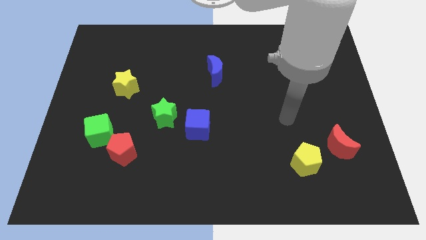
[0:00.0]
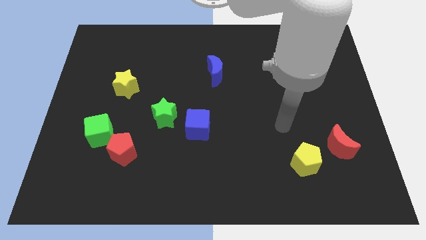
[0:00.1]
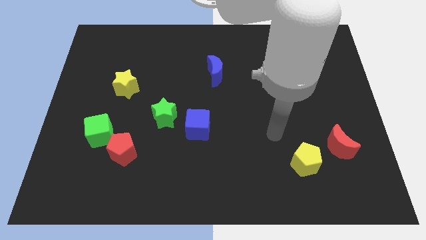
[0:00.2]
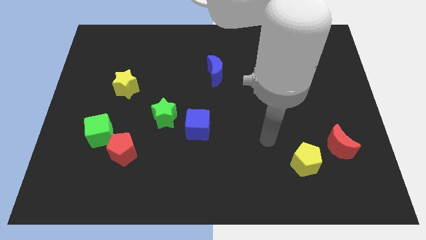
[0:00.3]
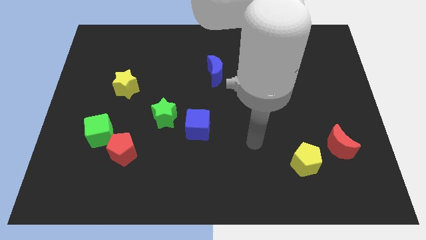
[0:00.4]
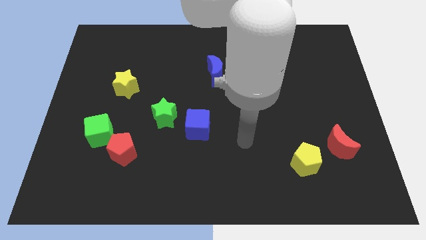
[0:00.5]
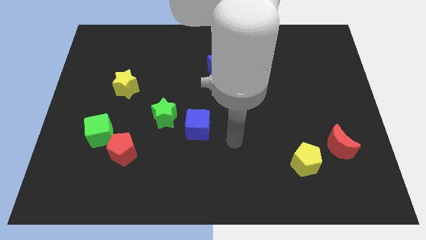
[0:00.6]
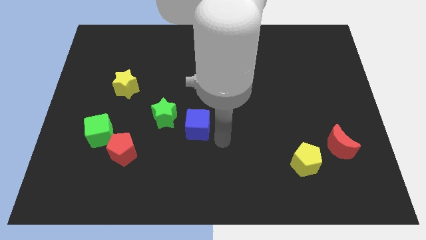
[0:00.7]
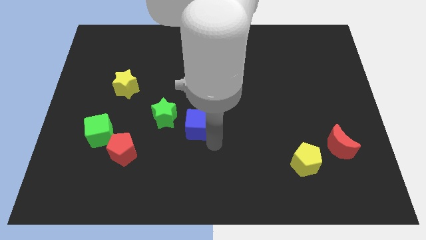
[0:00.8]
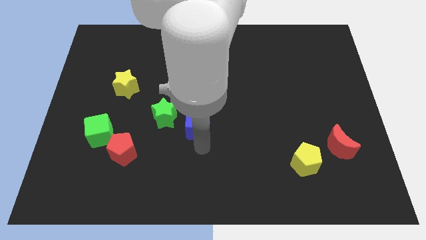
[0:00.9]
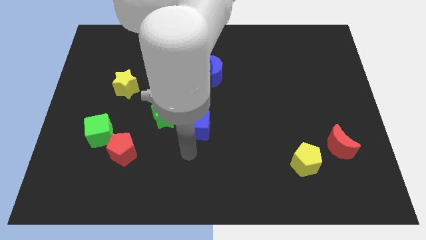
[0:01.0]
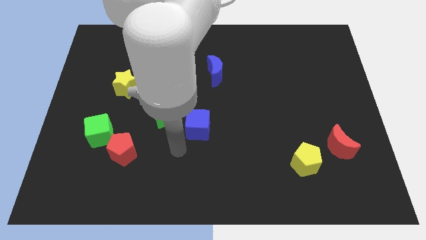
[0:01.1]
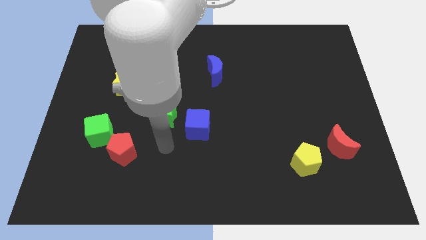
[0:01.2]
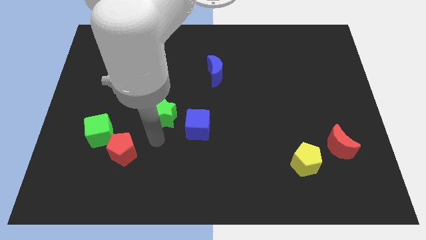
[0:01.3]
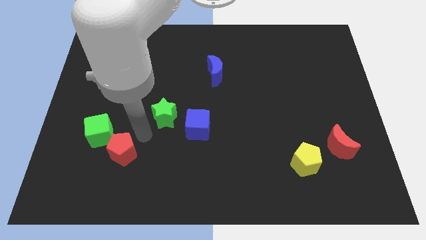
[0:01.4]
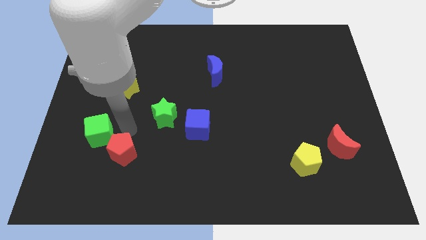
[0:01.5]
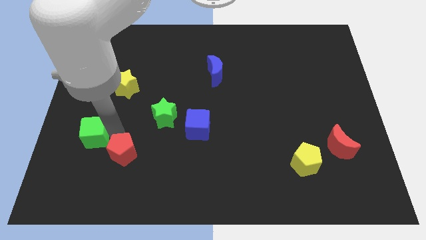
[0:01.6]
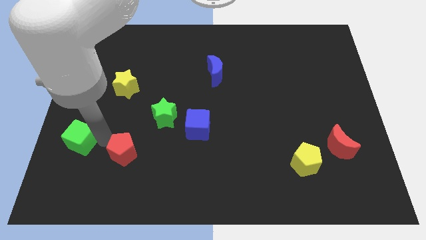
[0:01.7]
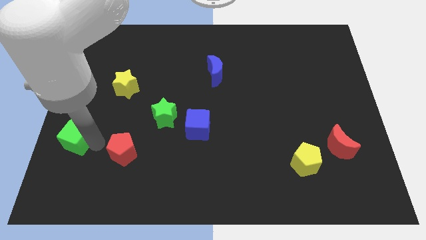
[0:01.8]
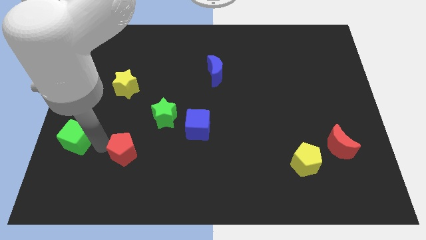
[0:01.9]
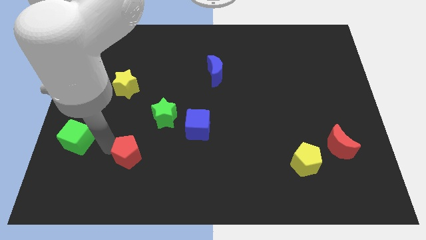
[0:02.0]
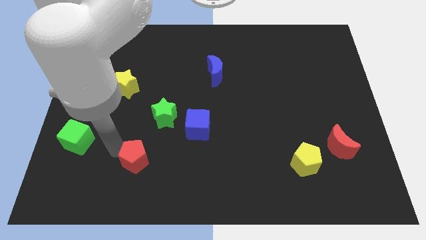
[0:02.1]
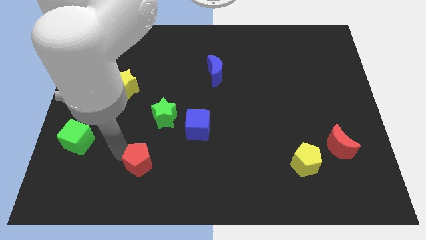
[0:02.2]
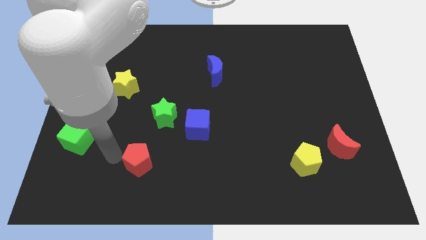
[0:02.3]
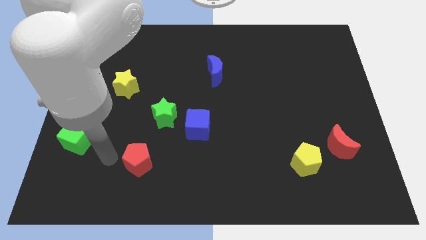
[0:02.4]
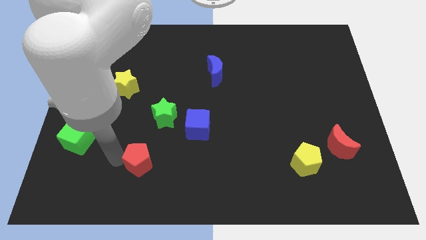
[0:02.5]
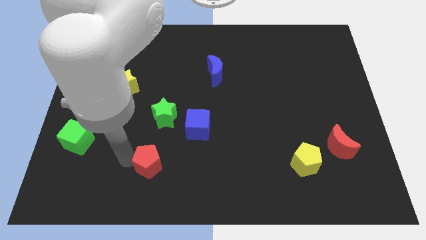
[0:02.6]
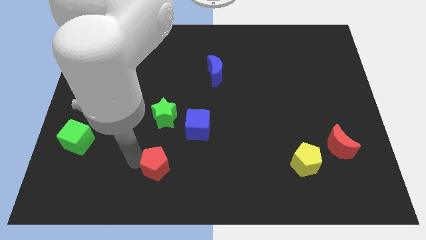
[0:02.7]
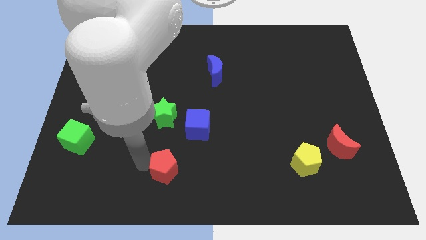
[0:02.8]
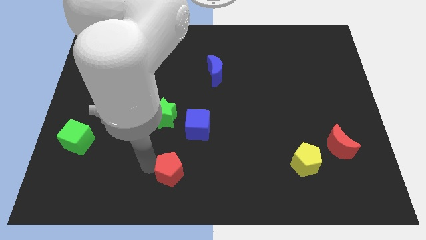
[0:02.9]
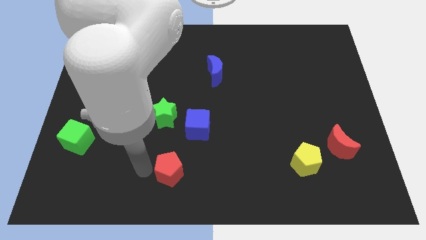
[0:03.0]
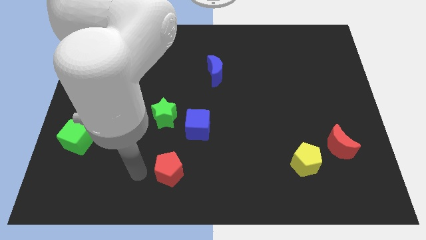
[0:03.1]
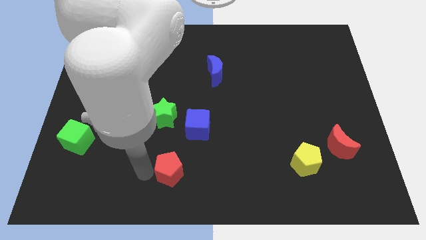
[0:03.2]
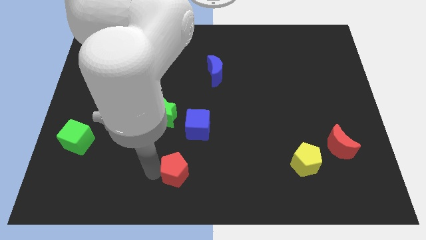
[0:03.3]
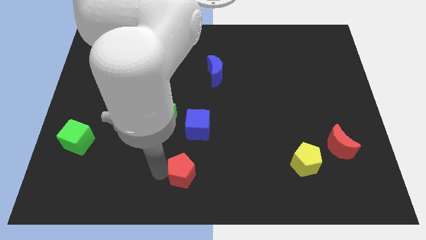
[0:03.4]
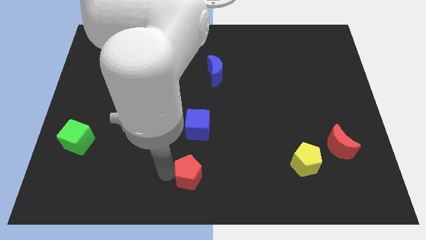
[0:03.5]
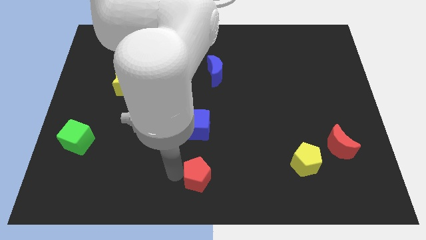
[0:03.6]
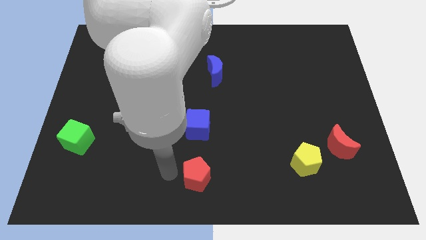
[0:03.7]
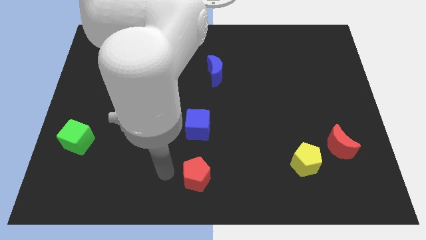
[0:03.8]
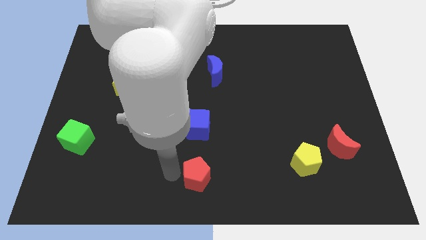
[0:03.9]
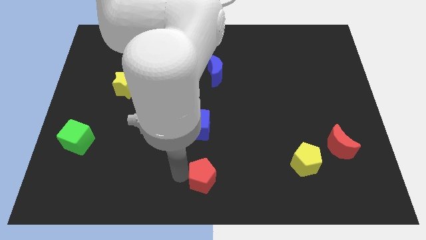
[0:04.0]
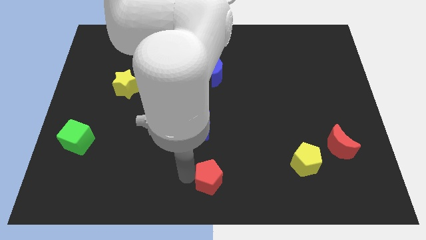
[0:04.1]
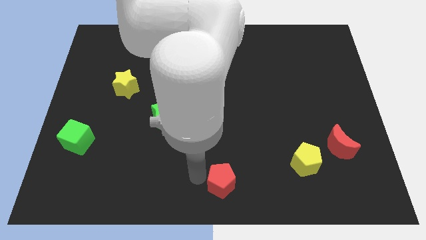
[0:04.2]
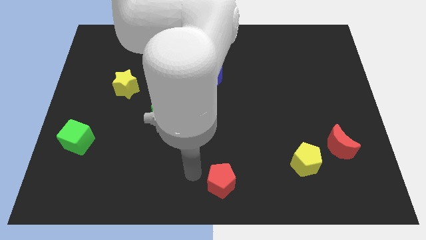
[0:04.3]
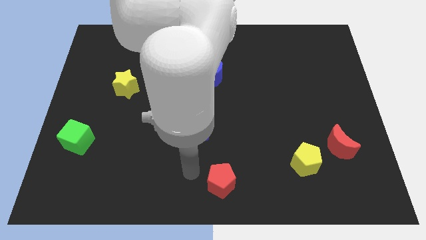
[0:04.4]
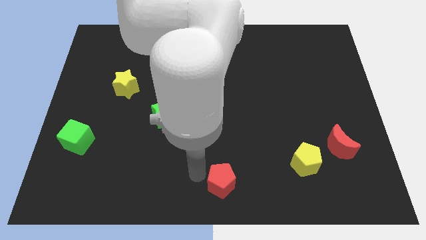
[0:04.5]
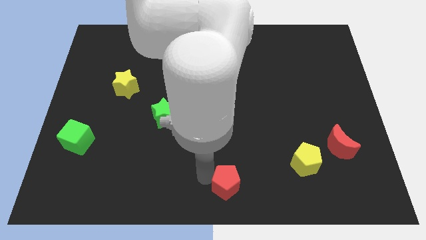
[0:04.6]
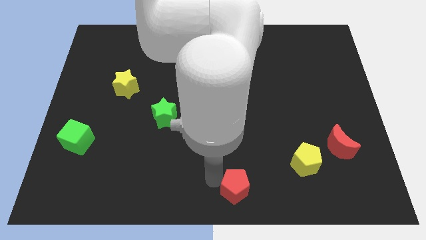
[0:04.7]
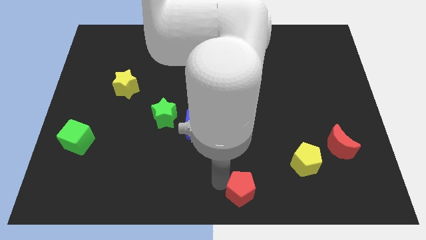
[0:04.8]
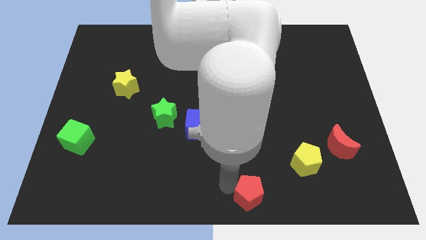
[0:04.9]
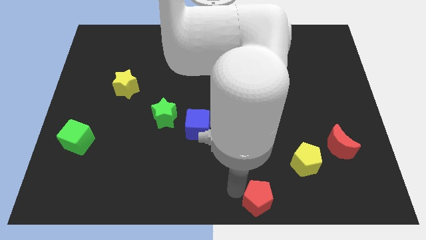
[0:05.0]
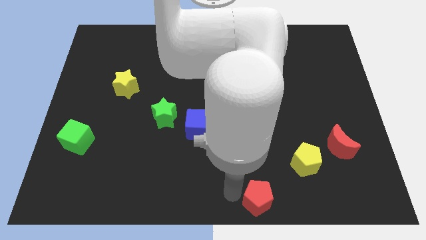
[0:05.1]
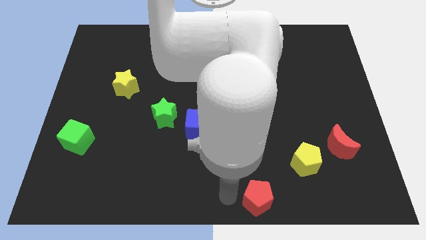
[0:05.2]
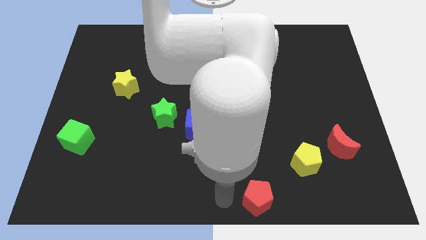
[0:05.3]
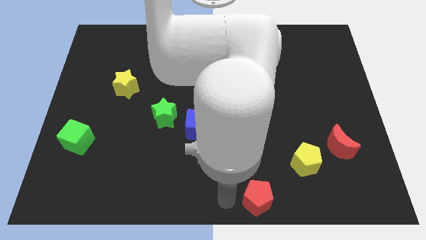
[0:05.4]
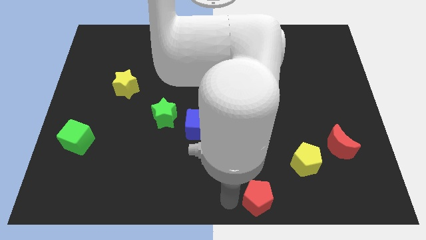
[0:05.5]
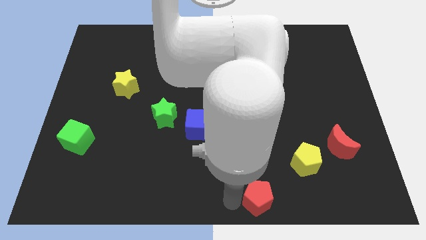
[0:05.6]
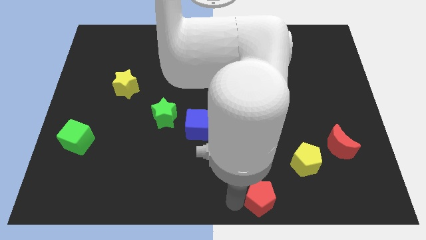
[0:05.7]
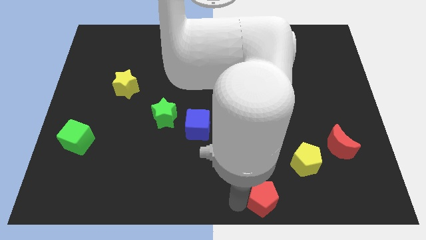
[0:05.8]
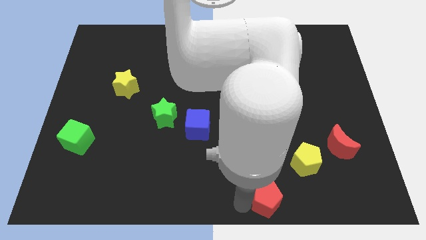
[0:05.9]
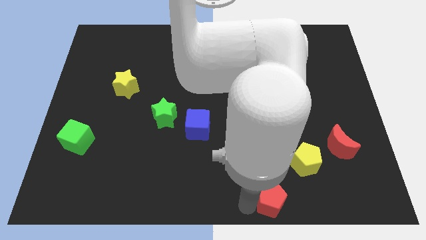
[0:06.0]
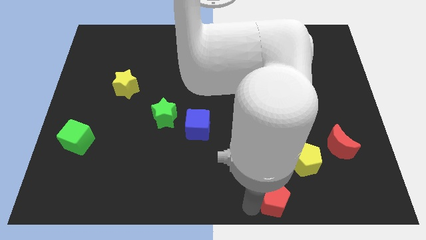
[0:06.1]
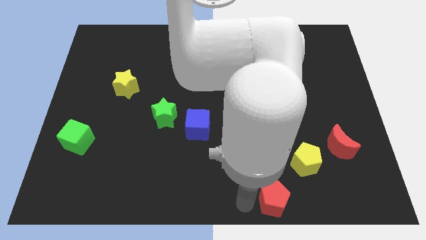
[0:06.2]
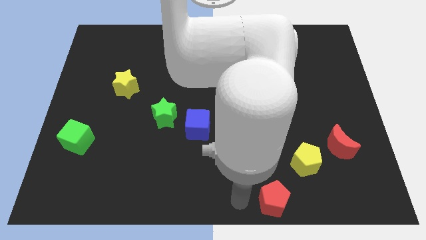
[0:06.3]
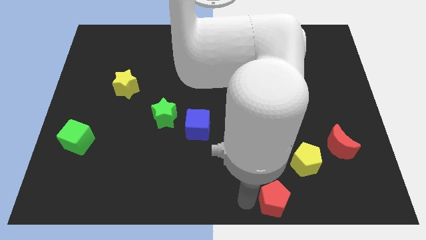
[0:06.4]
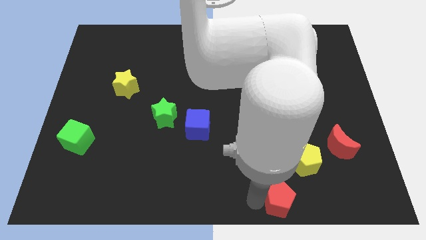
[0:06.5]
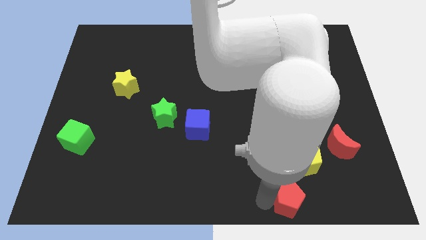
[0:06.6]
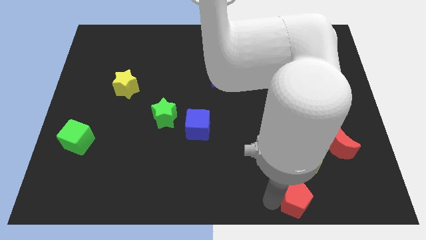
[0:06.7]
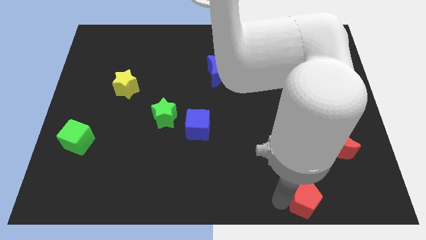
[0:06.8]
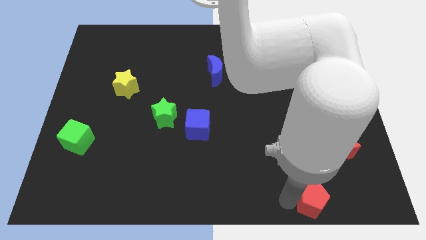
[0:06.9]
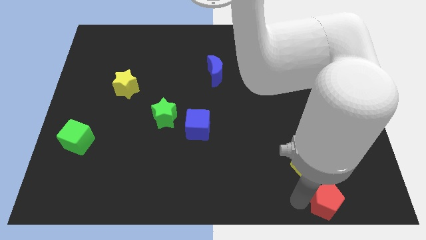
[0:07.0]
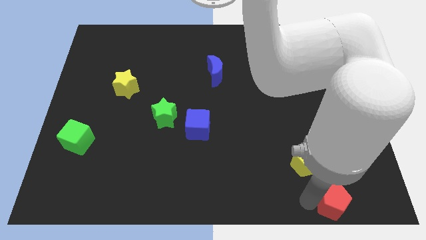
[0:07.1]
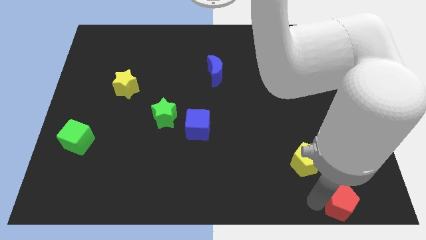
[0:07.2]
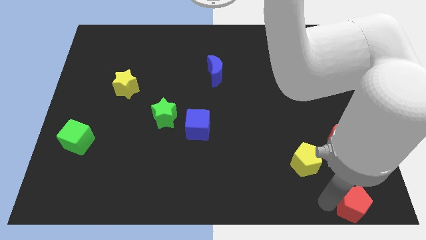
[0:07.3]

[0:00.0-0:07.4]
move the red pentagon to the lower right corner
